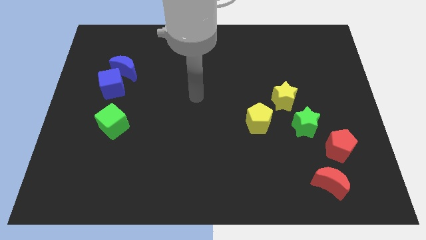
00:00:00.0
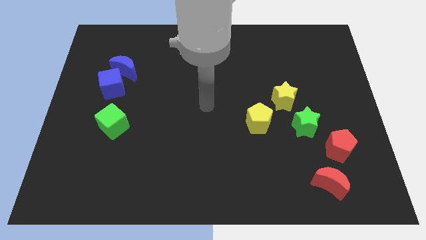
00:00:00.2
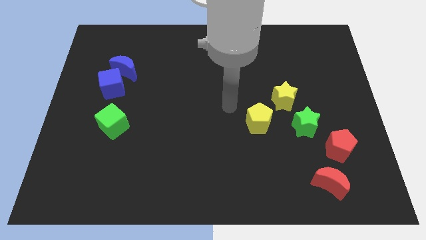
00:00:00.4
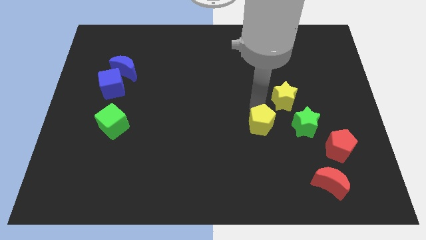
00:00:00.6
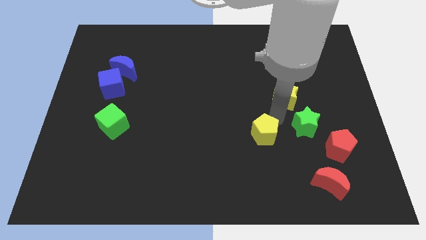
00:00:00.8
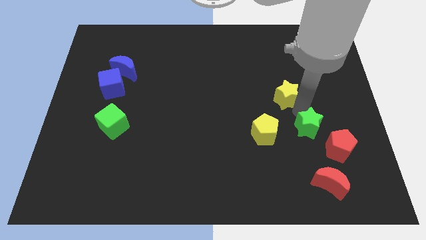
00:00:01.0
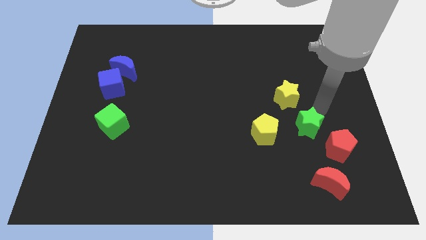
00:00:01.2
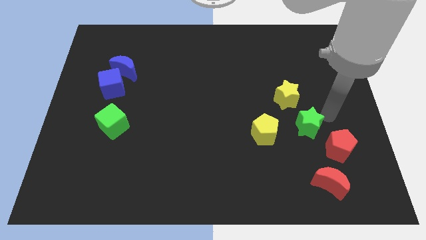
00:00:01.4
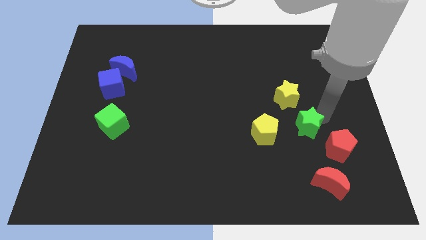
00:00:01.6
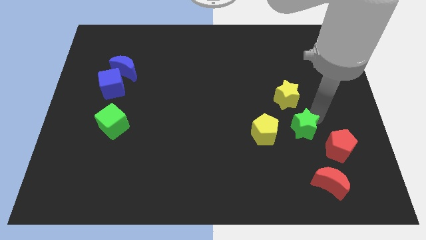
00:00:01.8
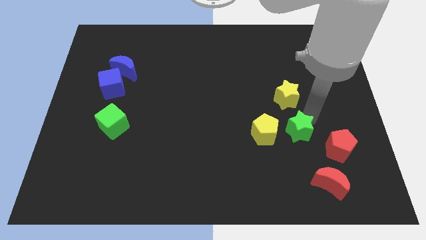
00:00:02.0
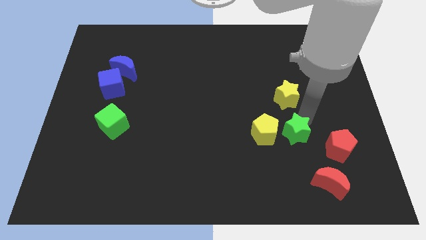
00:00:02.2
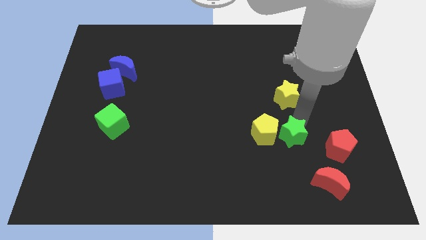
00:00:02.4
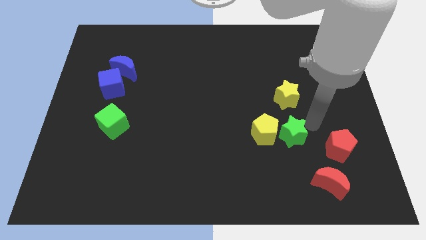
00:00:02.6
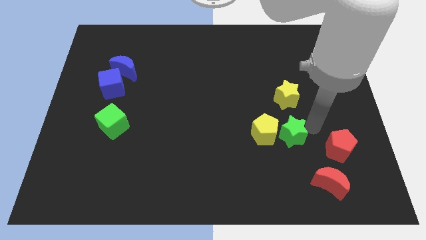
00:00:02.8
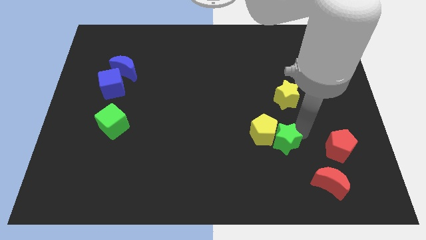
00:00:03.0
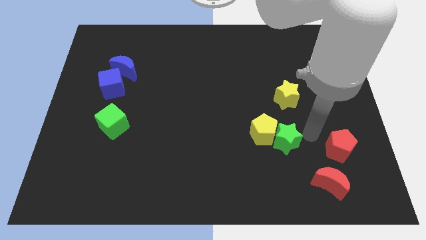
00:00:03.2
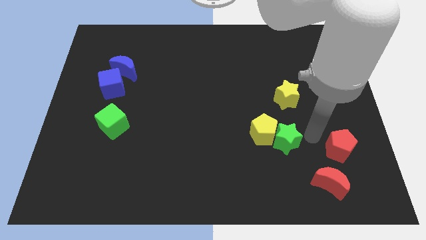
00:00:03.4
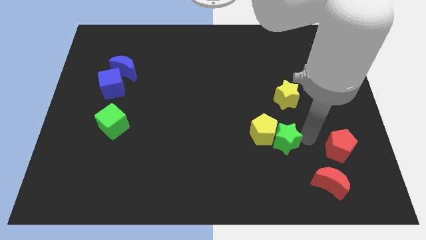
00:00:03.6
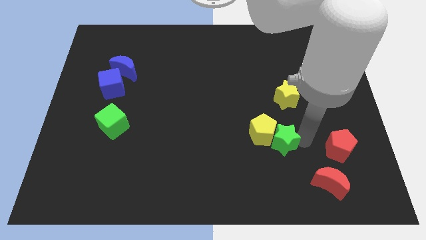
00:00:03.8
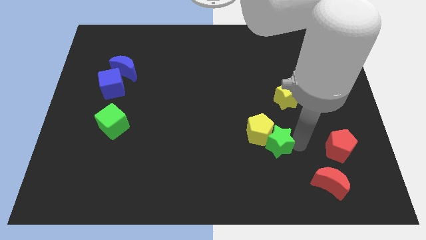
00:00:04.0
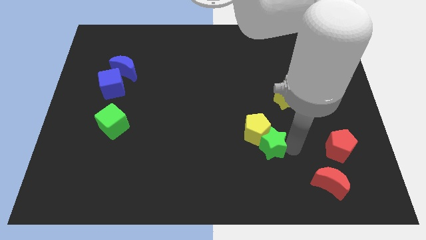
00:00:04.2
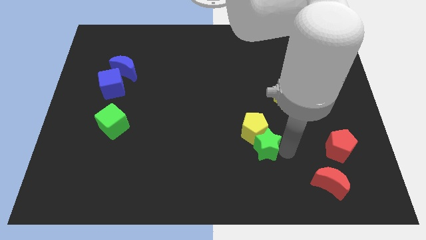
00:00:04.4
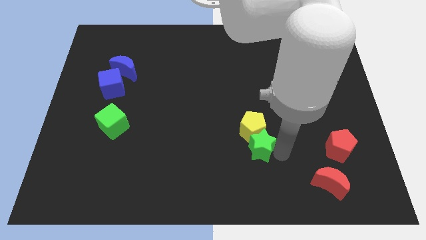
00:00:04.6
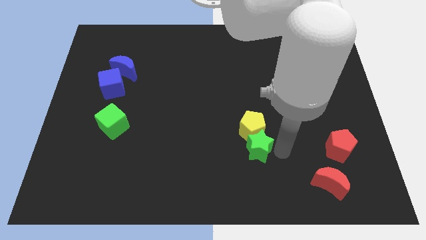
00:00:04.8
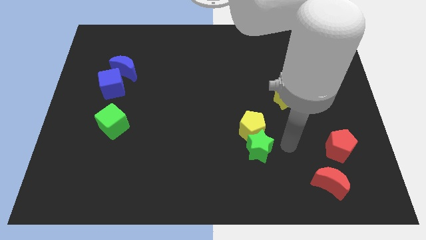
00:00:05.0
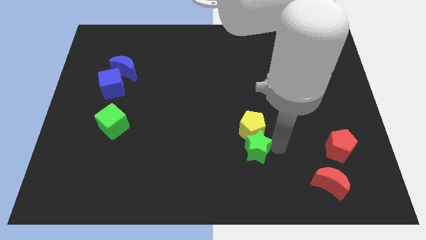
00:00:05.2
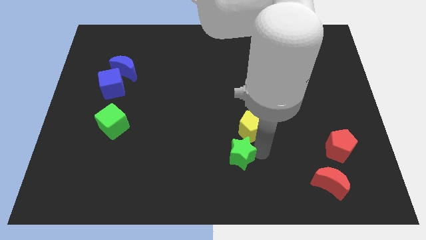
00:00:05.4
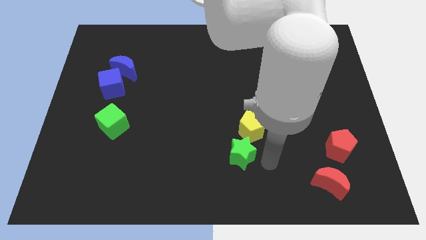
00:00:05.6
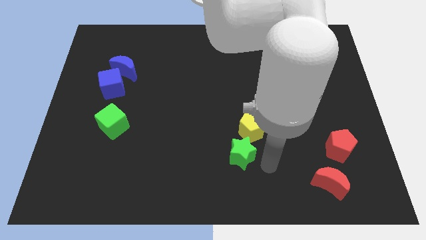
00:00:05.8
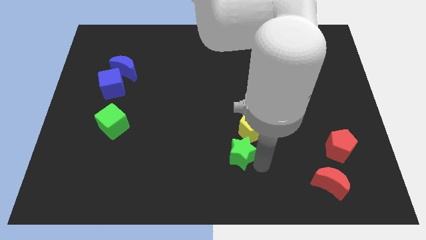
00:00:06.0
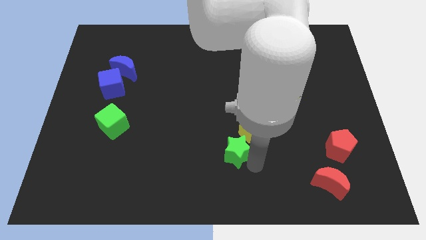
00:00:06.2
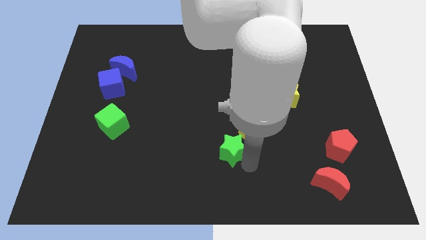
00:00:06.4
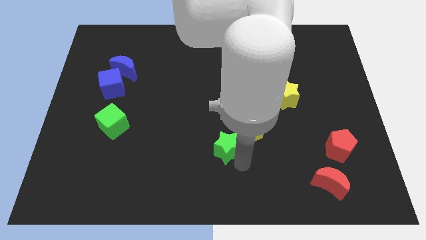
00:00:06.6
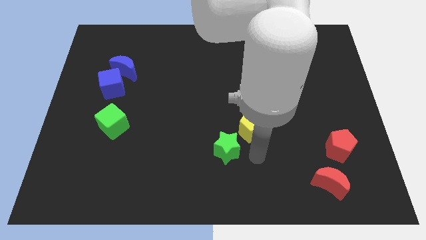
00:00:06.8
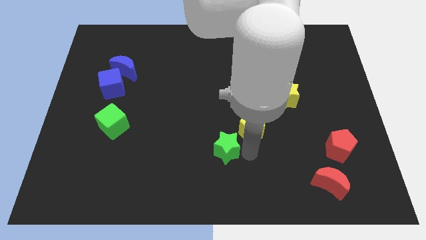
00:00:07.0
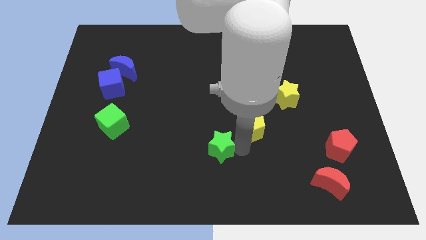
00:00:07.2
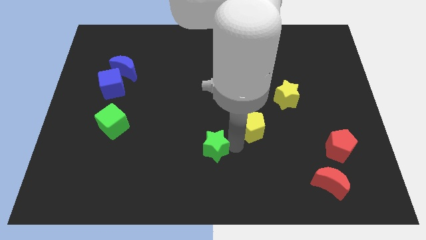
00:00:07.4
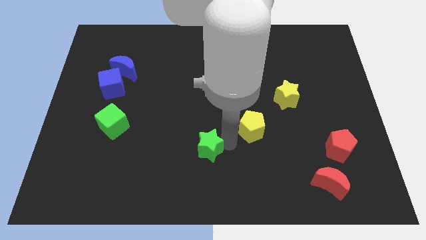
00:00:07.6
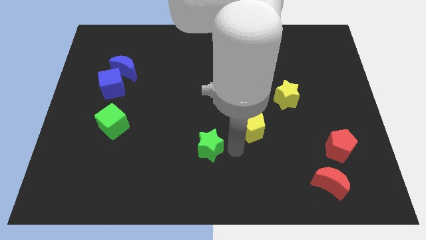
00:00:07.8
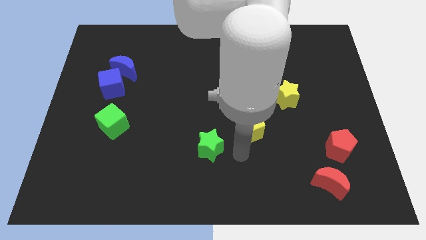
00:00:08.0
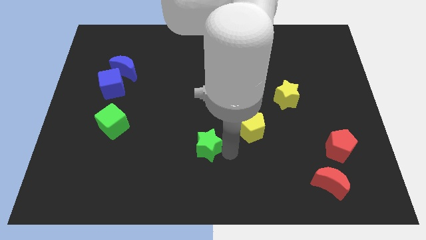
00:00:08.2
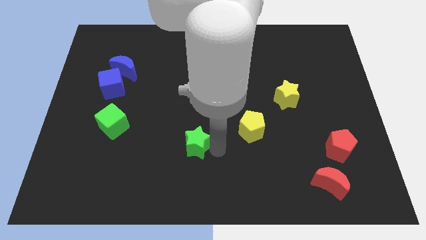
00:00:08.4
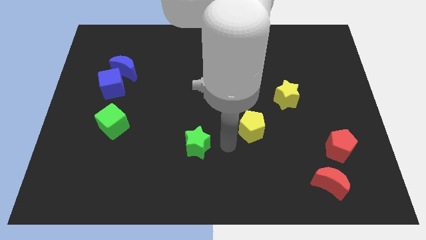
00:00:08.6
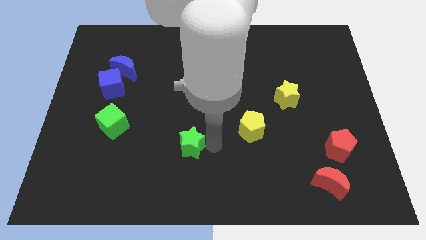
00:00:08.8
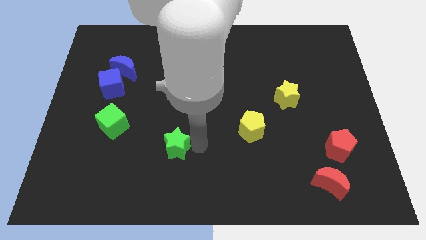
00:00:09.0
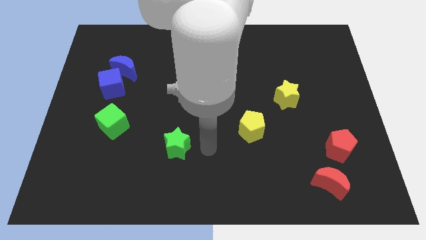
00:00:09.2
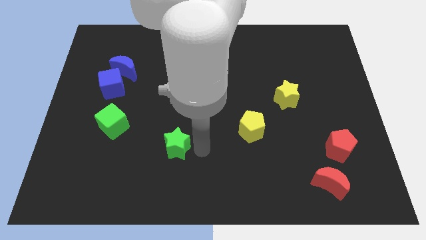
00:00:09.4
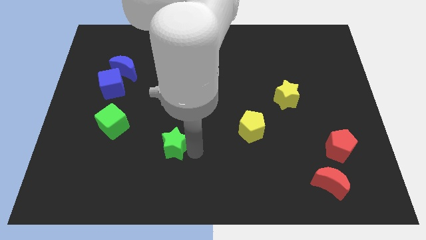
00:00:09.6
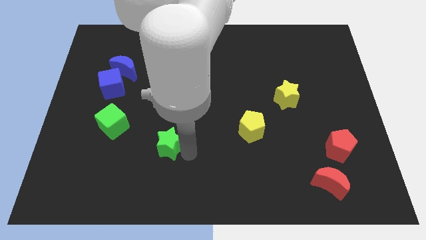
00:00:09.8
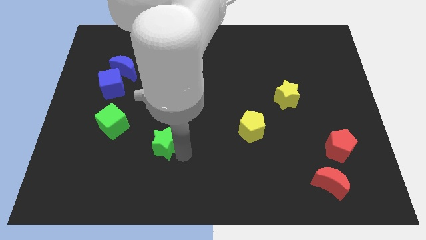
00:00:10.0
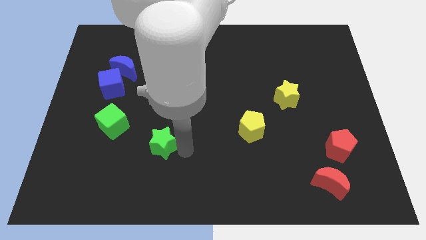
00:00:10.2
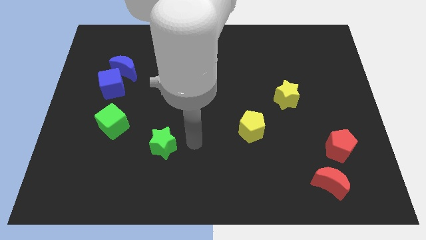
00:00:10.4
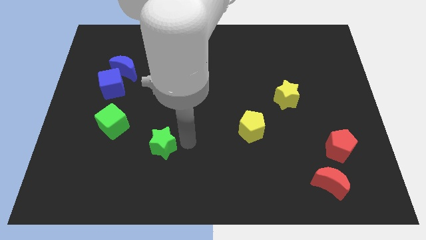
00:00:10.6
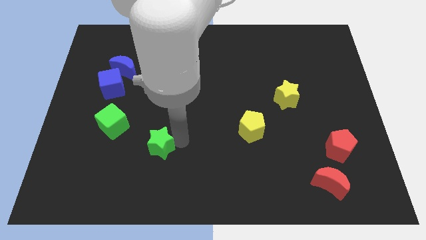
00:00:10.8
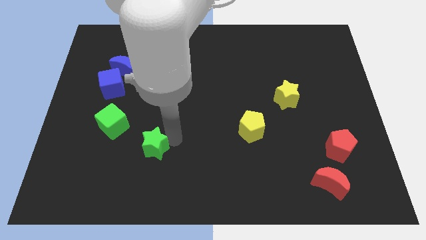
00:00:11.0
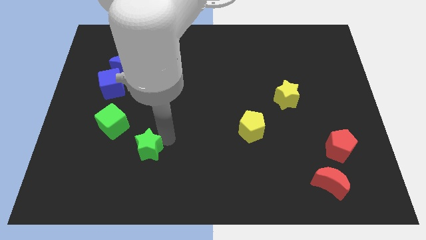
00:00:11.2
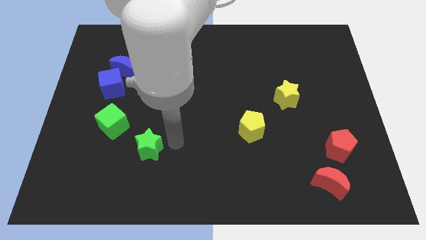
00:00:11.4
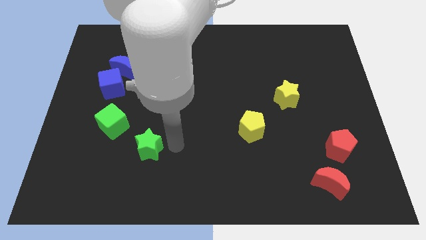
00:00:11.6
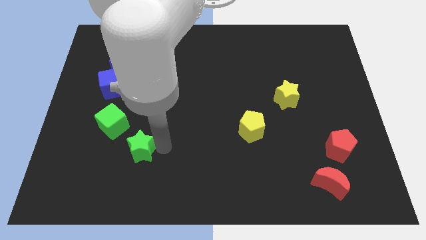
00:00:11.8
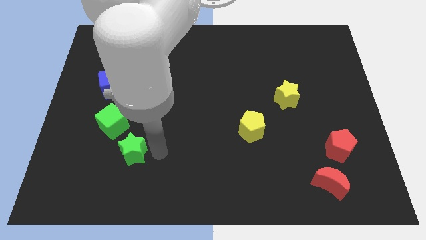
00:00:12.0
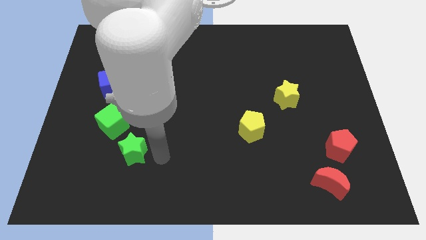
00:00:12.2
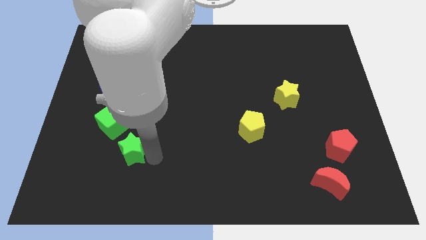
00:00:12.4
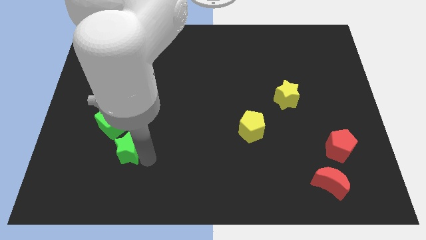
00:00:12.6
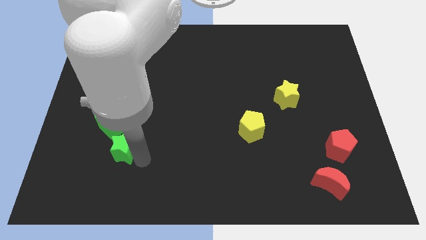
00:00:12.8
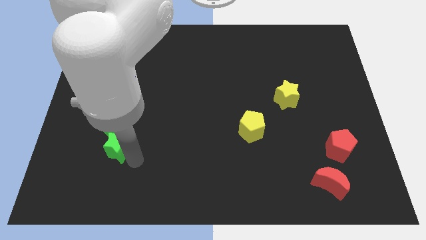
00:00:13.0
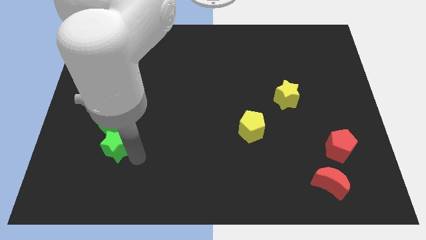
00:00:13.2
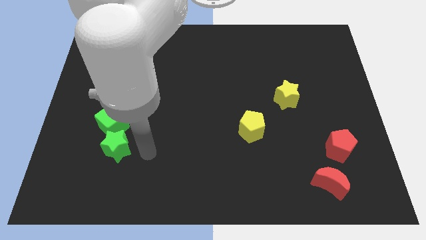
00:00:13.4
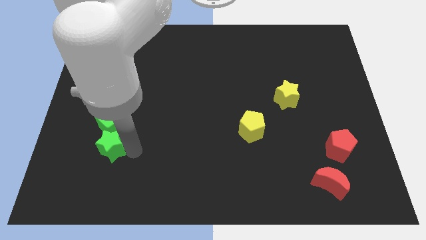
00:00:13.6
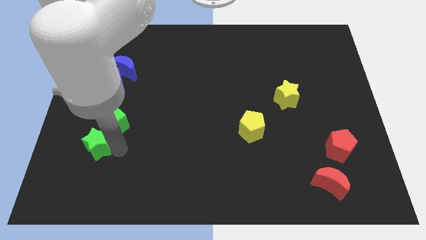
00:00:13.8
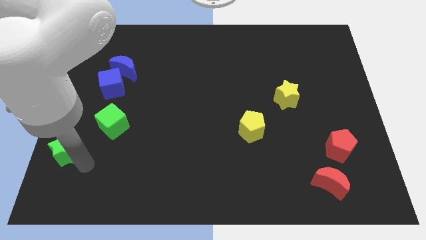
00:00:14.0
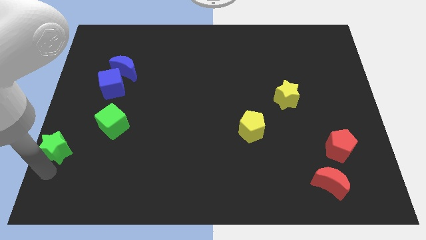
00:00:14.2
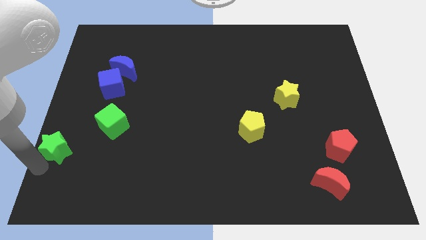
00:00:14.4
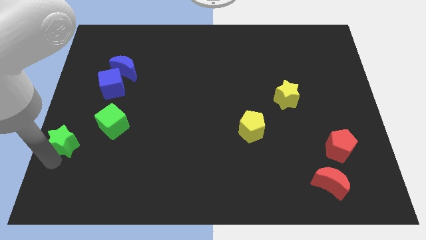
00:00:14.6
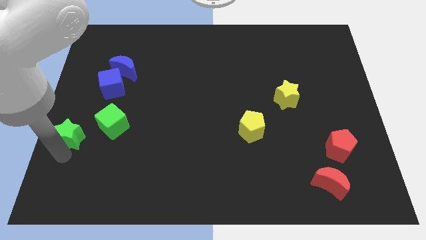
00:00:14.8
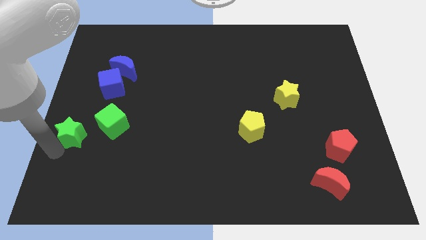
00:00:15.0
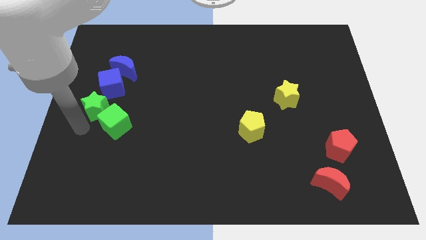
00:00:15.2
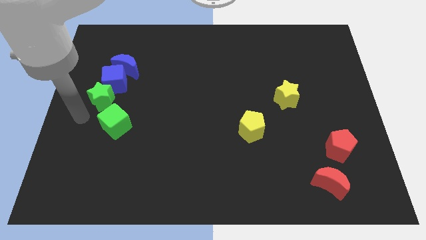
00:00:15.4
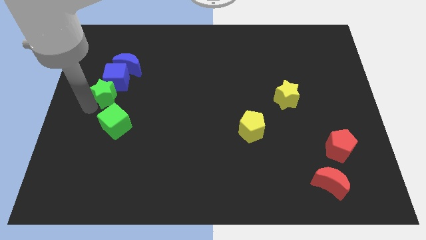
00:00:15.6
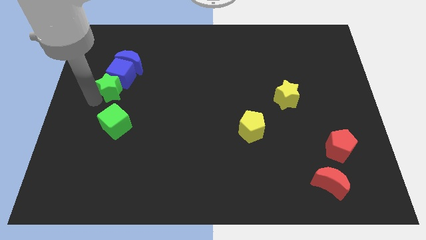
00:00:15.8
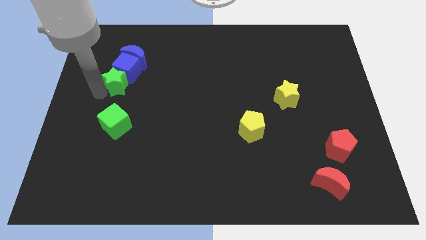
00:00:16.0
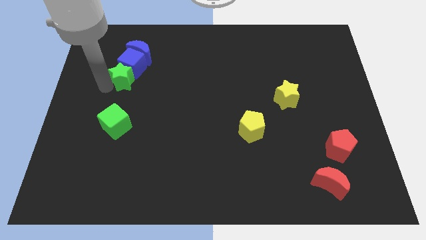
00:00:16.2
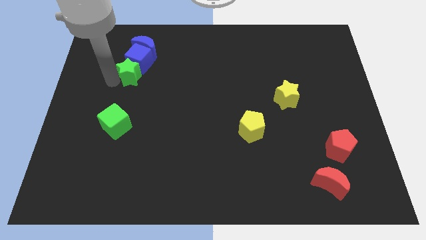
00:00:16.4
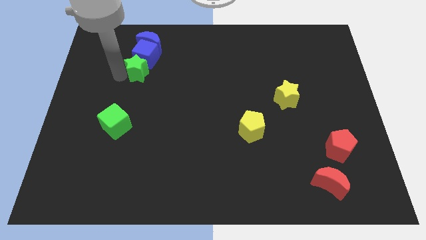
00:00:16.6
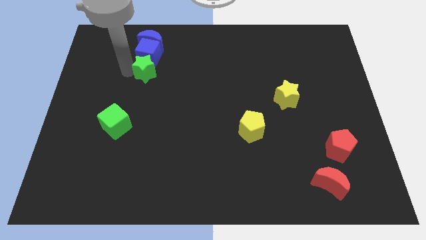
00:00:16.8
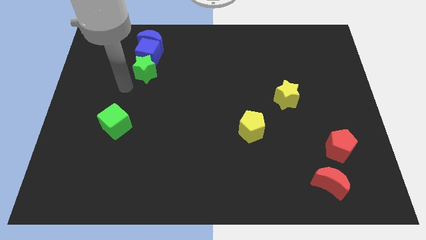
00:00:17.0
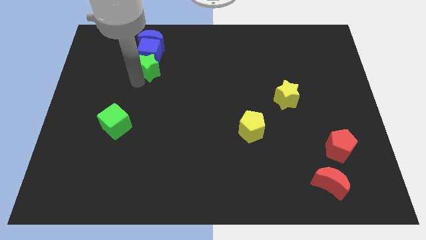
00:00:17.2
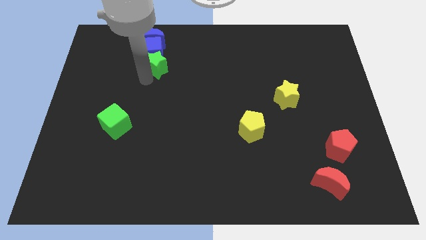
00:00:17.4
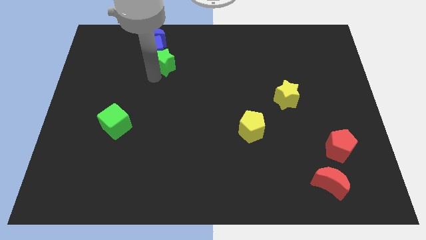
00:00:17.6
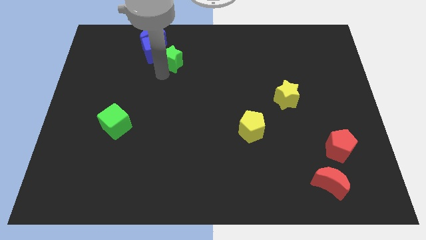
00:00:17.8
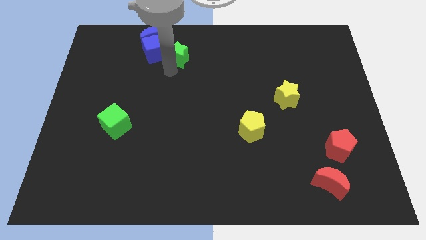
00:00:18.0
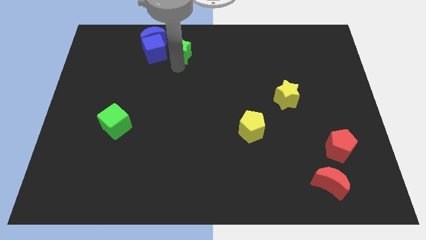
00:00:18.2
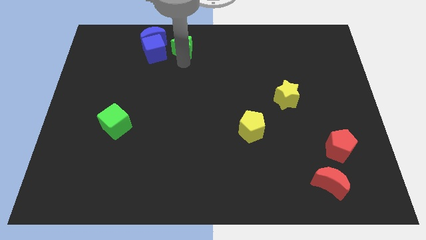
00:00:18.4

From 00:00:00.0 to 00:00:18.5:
push the green star to the top side
